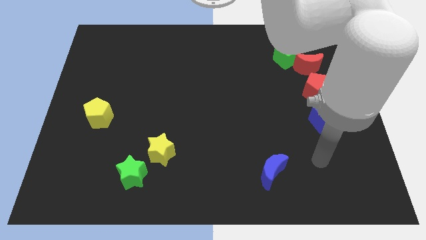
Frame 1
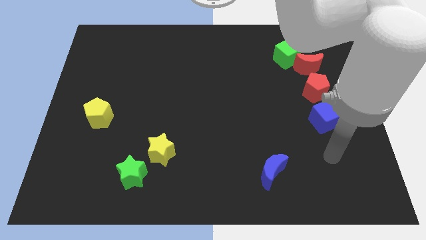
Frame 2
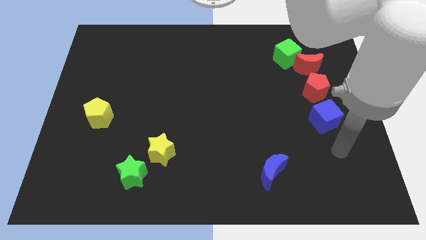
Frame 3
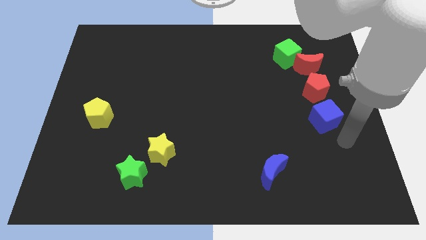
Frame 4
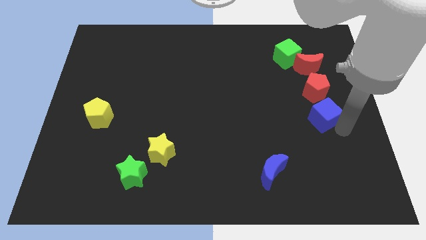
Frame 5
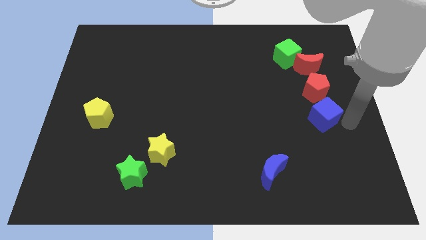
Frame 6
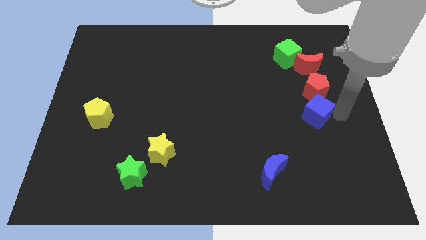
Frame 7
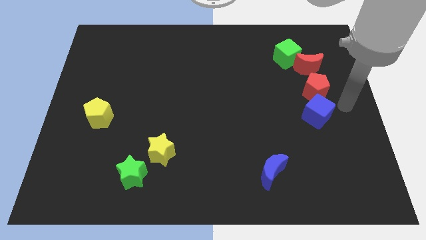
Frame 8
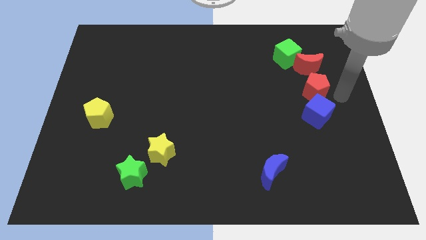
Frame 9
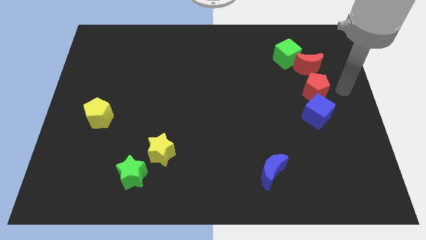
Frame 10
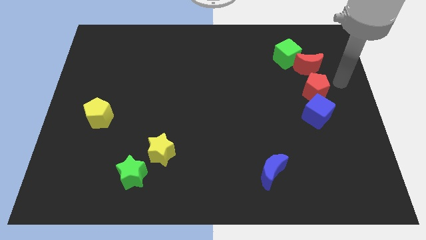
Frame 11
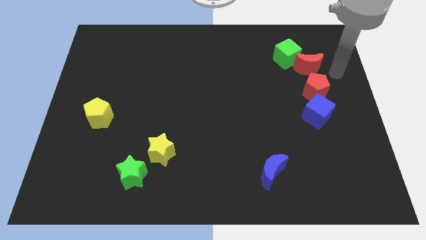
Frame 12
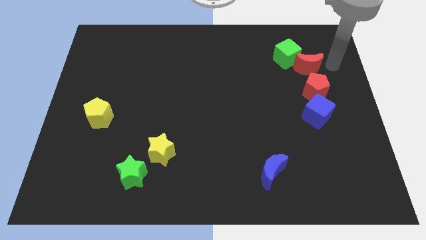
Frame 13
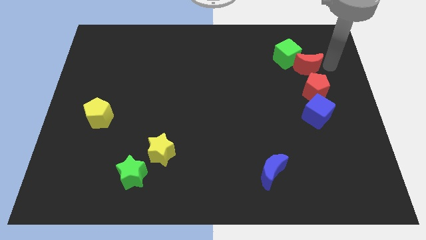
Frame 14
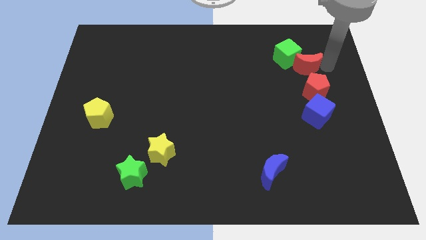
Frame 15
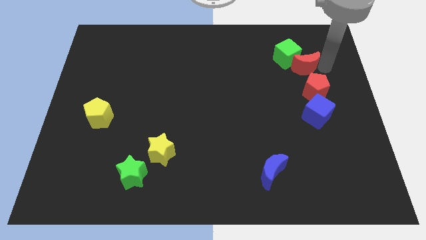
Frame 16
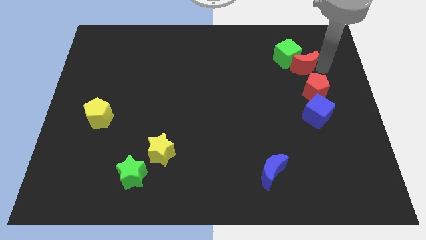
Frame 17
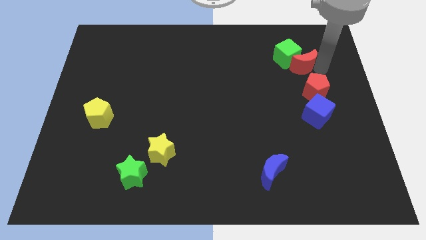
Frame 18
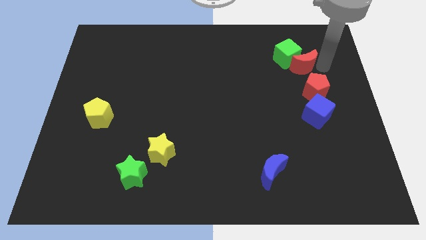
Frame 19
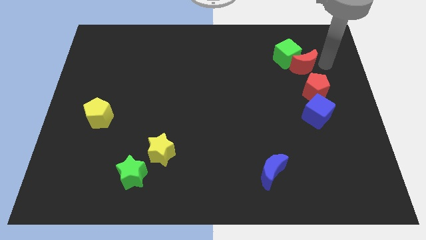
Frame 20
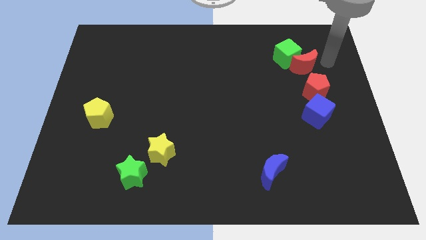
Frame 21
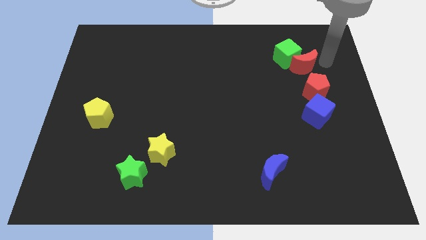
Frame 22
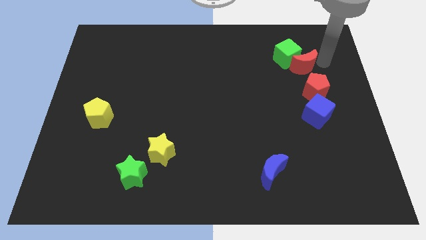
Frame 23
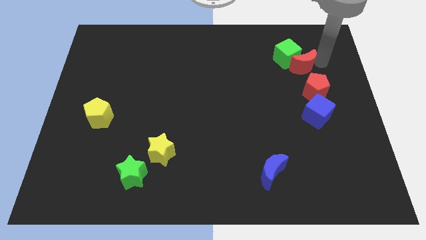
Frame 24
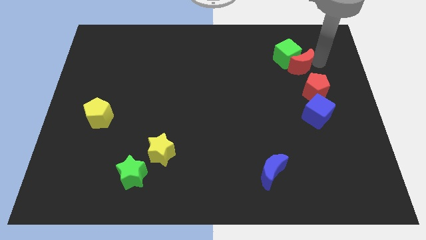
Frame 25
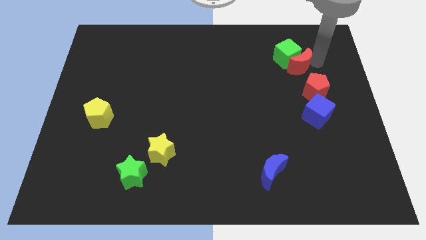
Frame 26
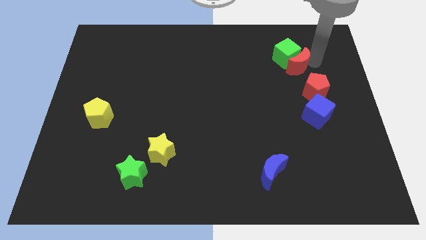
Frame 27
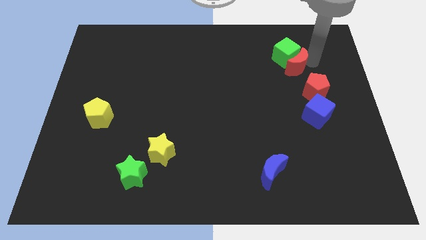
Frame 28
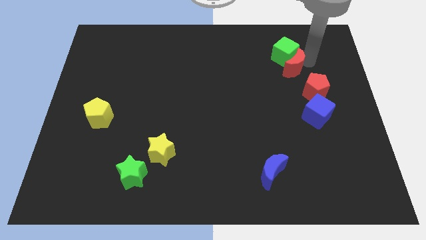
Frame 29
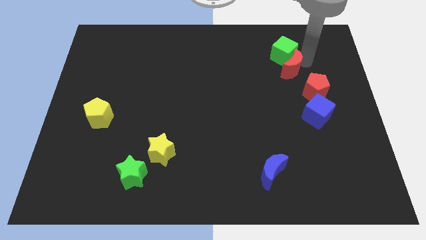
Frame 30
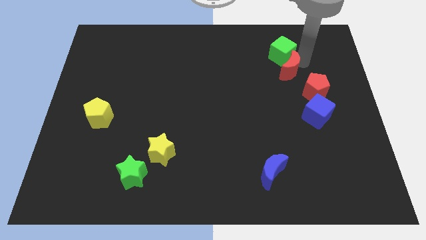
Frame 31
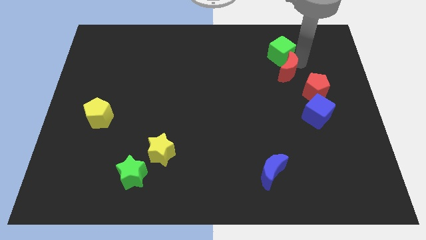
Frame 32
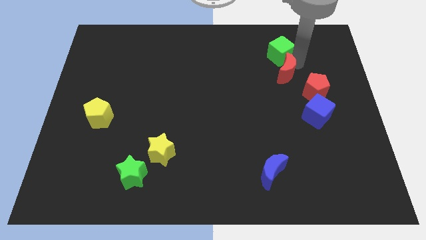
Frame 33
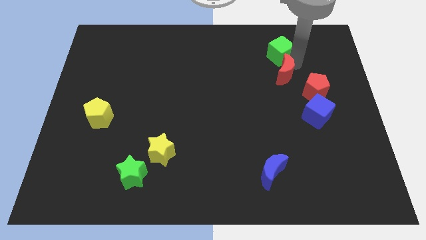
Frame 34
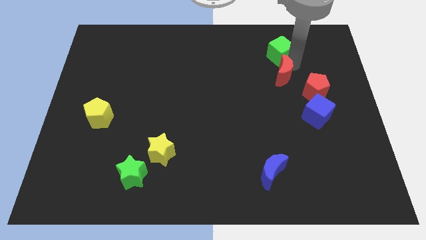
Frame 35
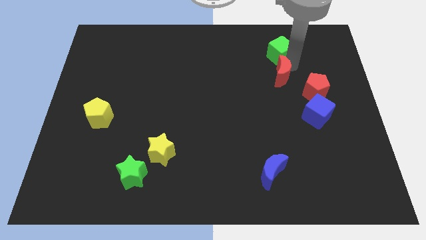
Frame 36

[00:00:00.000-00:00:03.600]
slightly slide the red moon to the left

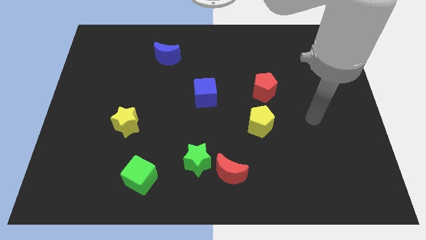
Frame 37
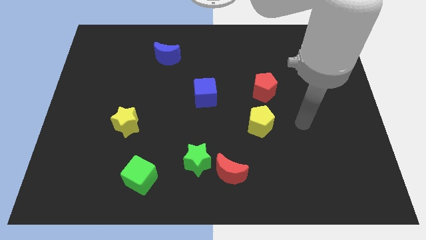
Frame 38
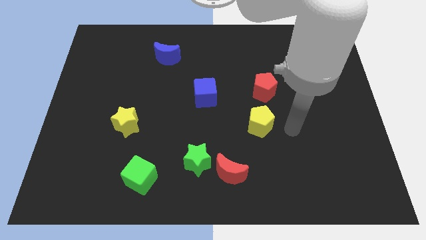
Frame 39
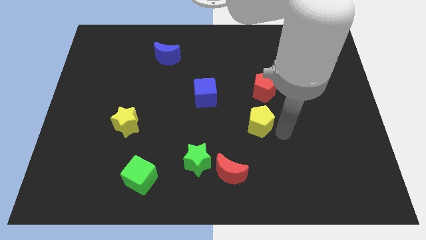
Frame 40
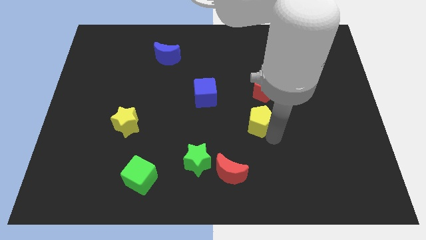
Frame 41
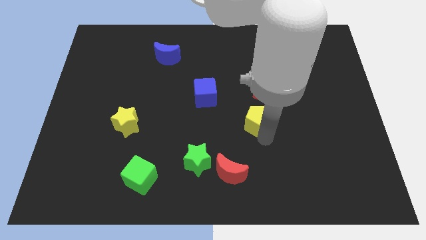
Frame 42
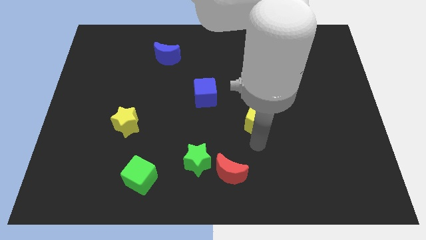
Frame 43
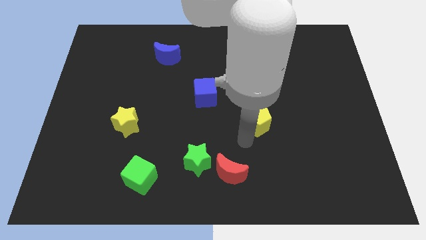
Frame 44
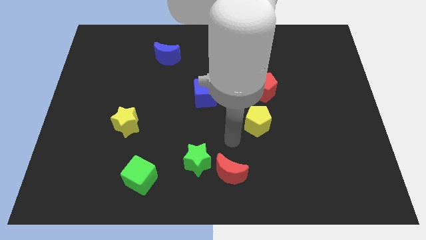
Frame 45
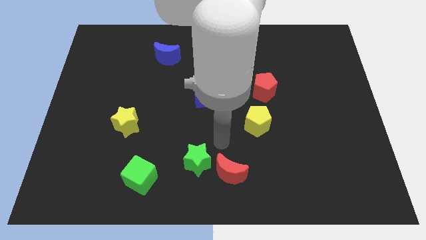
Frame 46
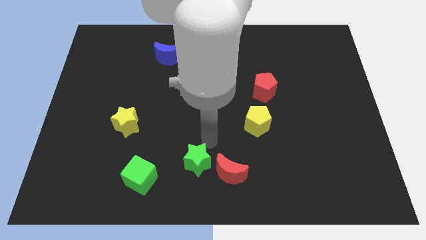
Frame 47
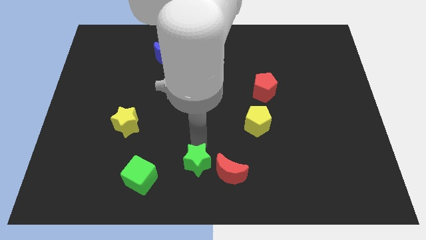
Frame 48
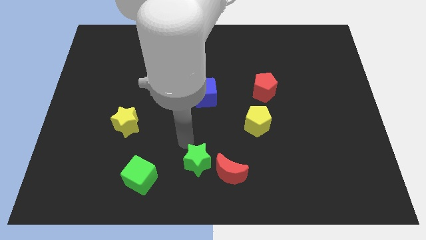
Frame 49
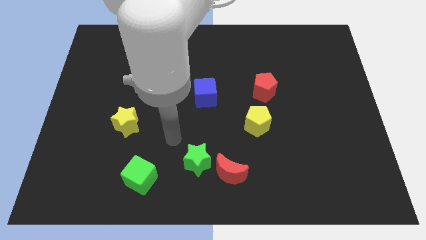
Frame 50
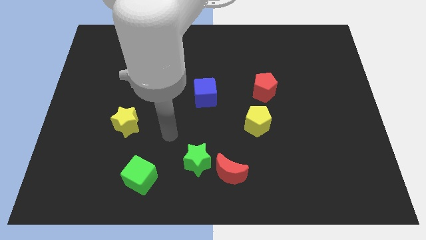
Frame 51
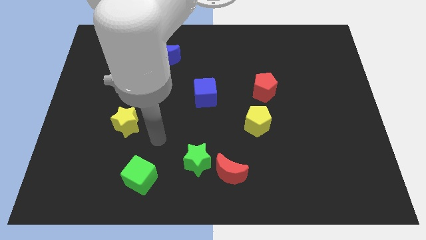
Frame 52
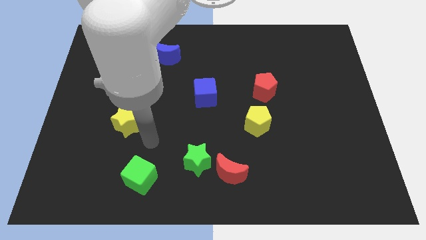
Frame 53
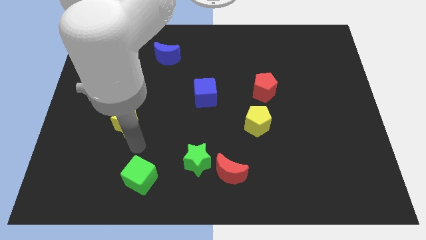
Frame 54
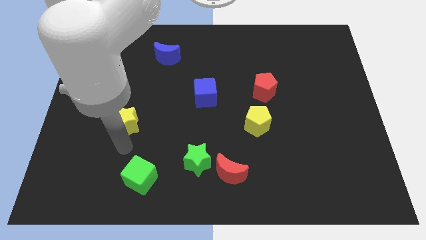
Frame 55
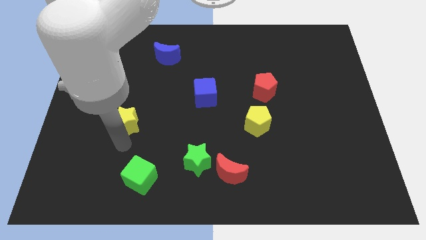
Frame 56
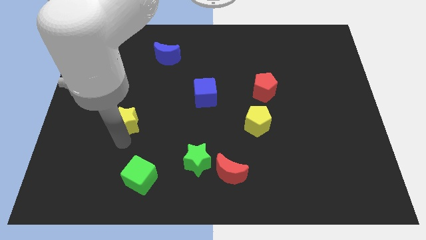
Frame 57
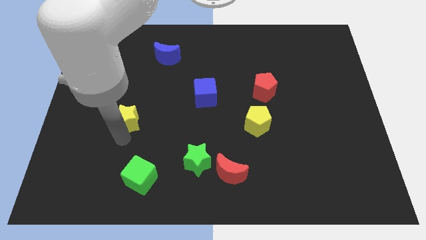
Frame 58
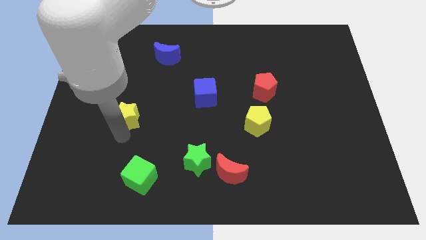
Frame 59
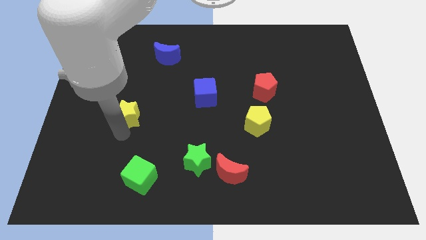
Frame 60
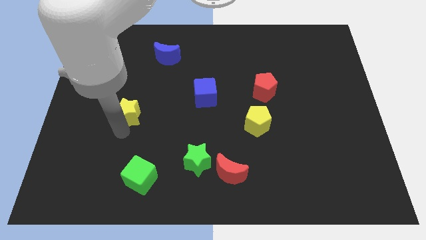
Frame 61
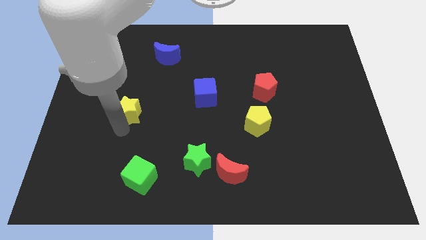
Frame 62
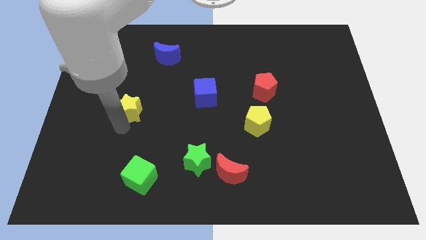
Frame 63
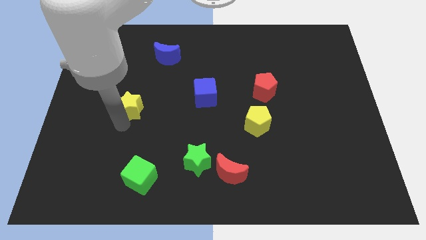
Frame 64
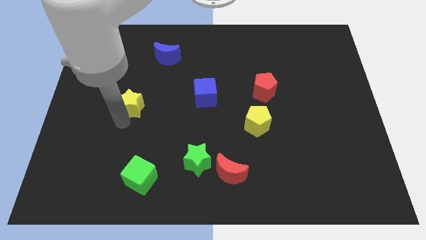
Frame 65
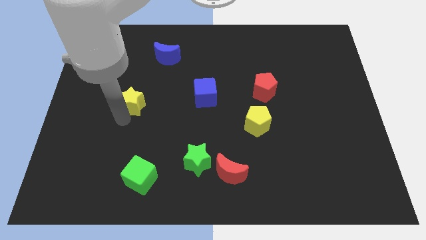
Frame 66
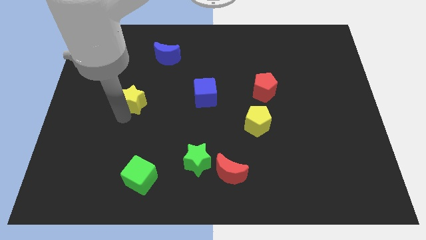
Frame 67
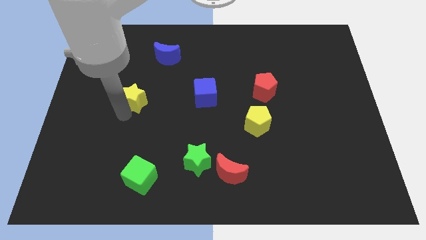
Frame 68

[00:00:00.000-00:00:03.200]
slide the yellow star up a little

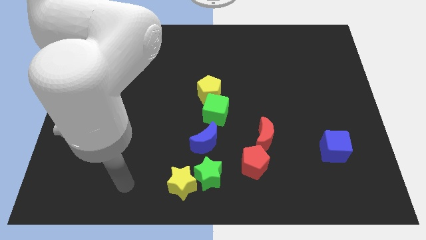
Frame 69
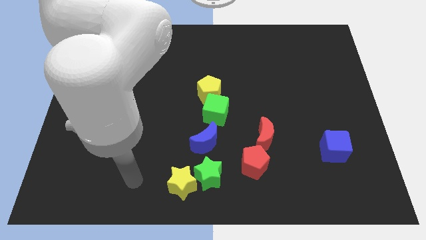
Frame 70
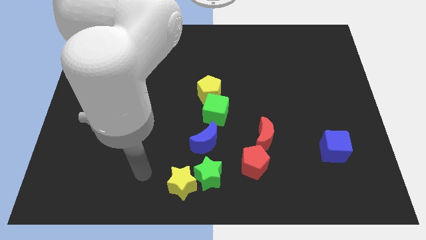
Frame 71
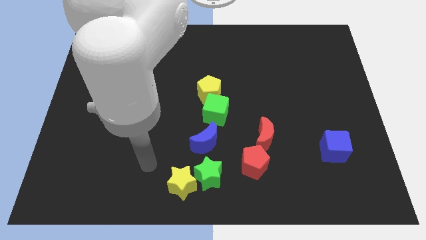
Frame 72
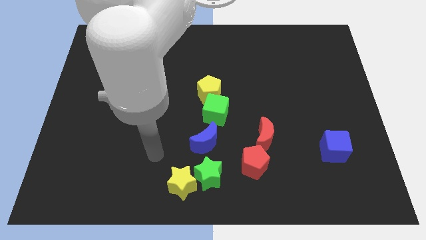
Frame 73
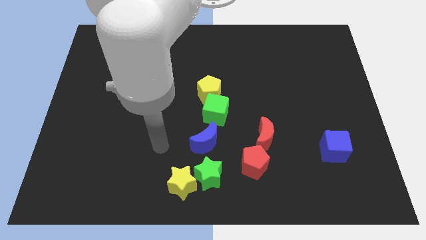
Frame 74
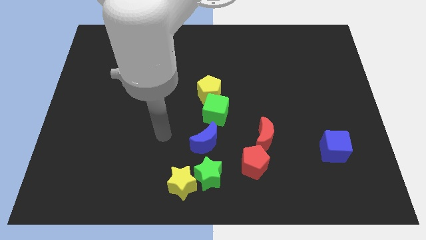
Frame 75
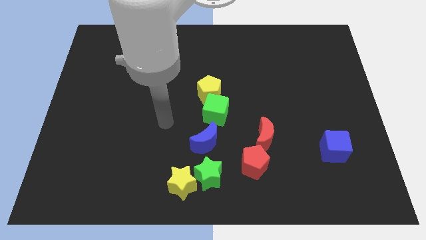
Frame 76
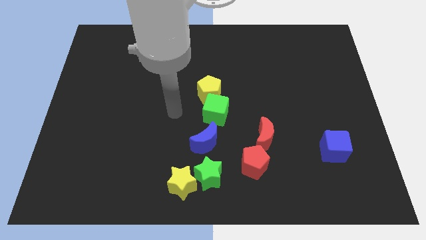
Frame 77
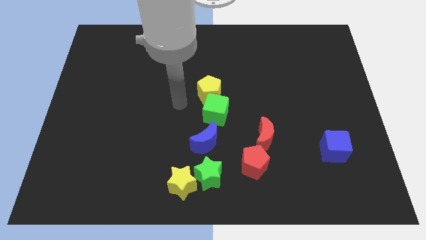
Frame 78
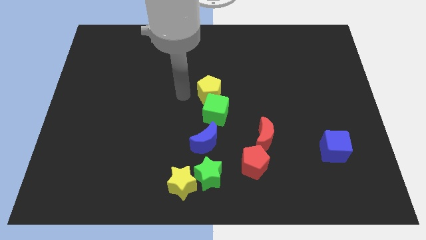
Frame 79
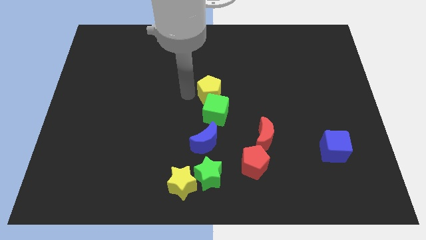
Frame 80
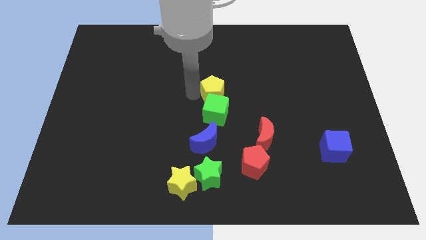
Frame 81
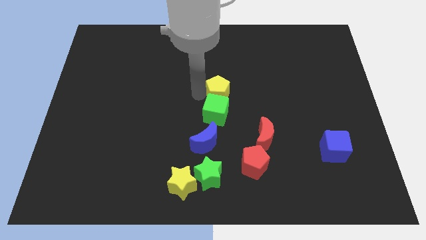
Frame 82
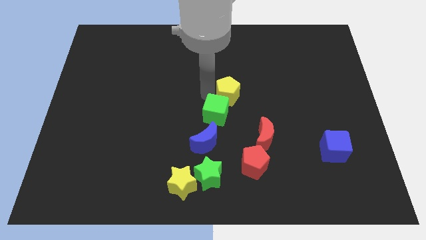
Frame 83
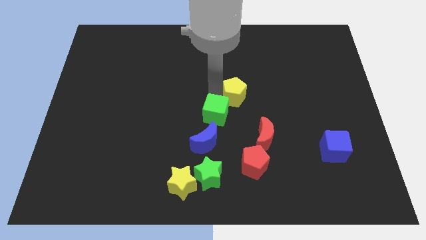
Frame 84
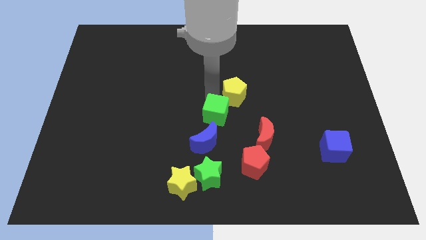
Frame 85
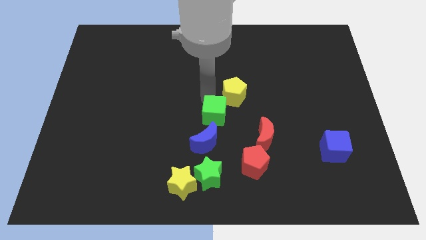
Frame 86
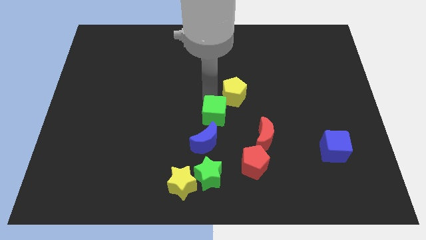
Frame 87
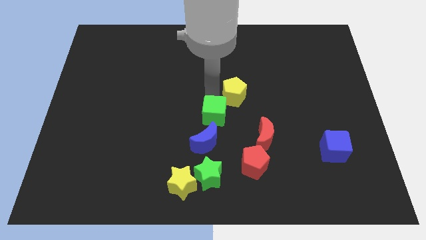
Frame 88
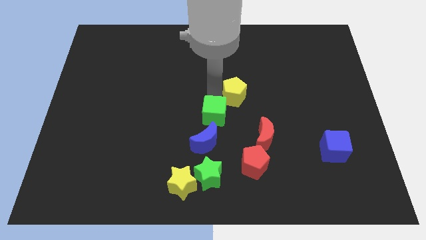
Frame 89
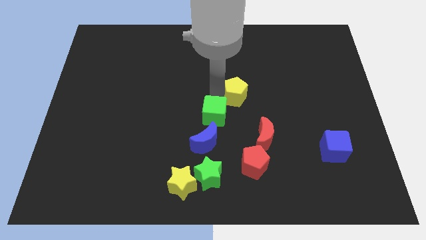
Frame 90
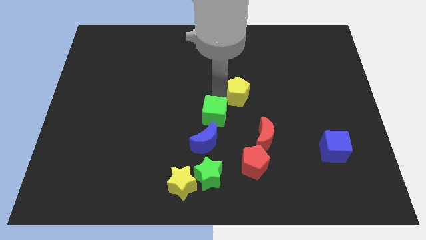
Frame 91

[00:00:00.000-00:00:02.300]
slightly slide the yellow pentagon right
